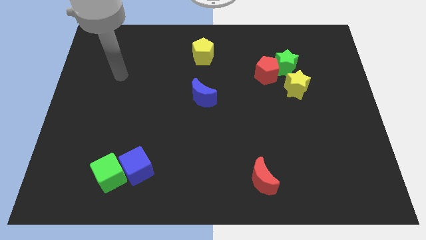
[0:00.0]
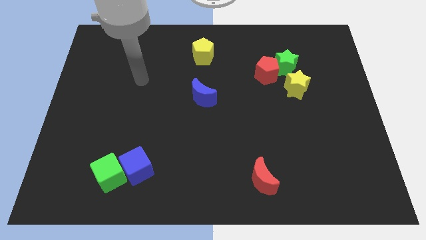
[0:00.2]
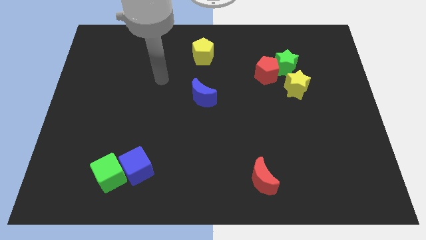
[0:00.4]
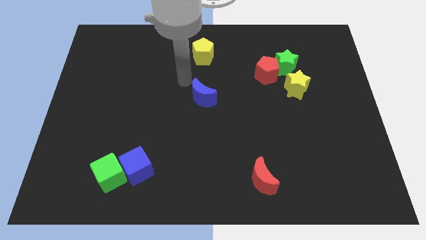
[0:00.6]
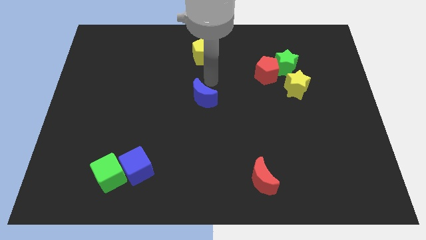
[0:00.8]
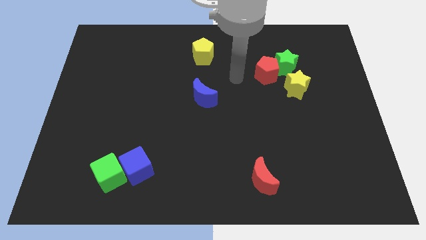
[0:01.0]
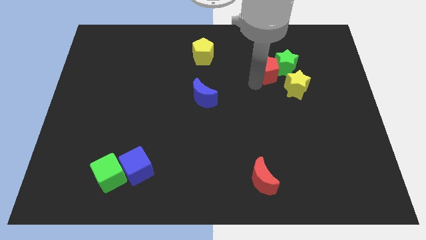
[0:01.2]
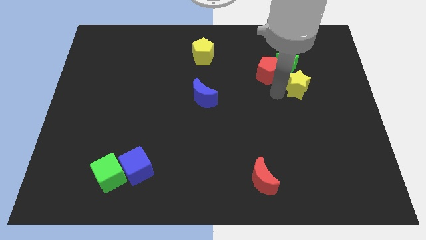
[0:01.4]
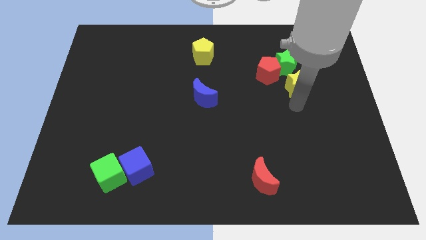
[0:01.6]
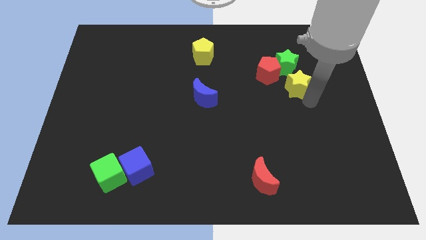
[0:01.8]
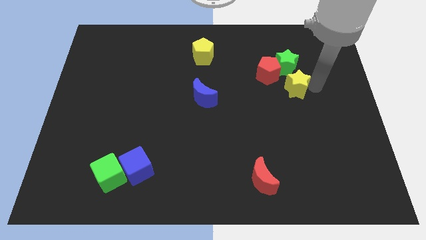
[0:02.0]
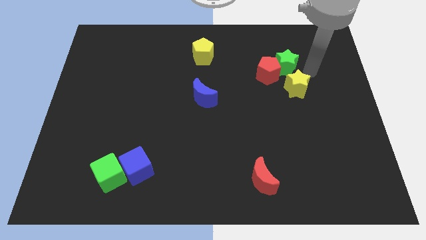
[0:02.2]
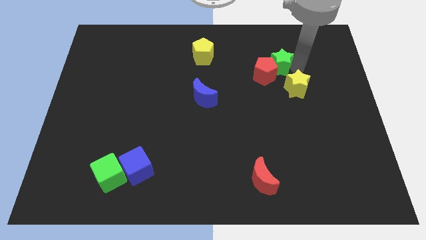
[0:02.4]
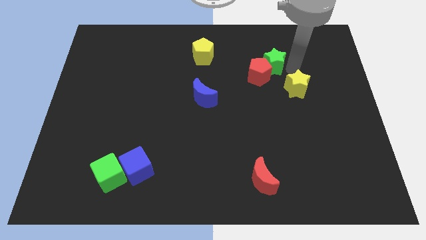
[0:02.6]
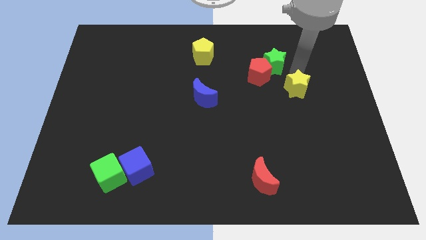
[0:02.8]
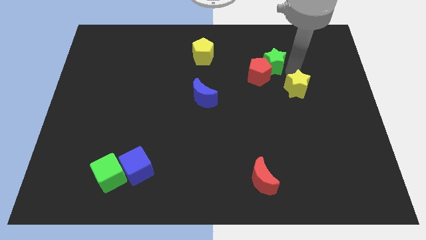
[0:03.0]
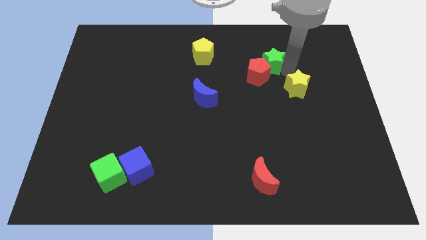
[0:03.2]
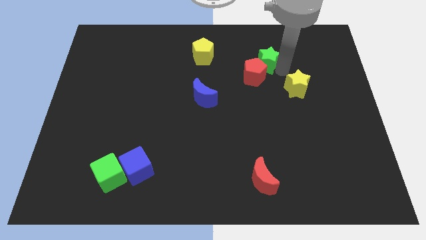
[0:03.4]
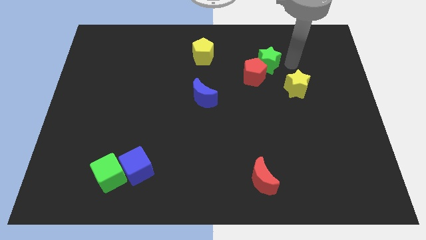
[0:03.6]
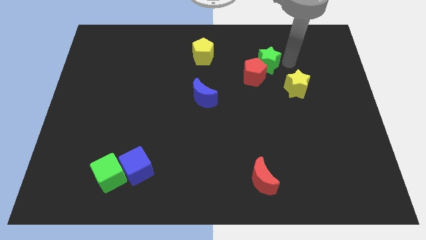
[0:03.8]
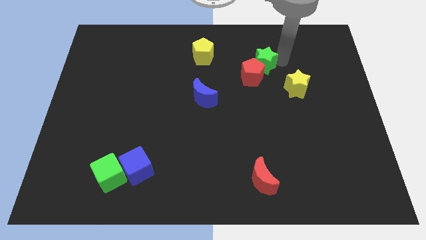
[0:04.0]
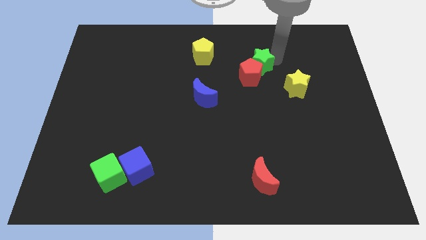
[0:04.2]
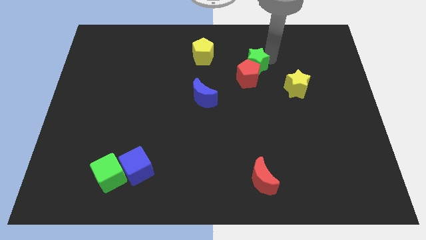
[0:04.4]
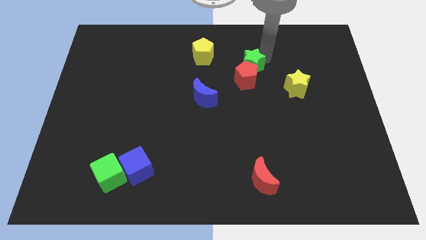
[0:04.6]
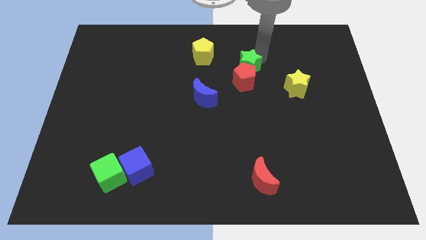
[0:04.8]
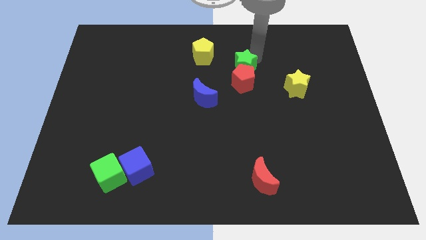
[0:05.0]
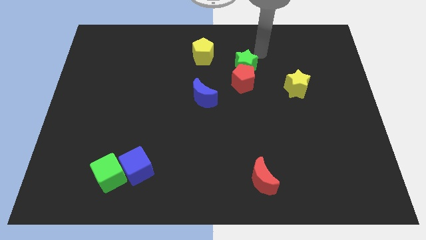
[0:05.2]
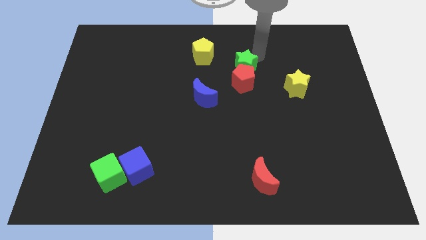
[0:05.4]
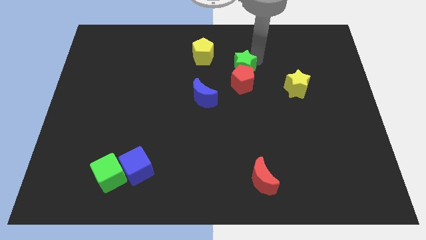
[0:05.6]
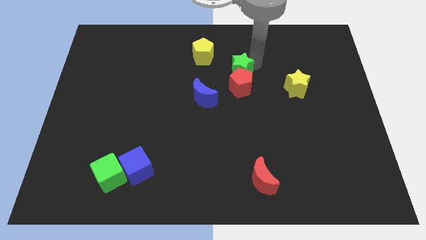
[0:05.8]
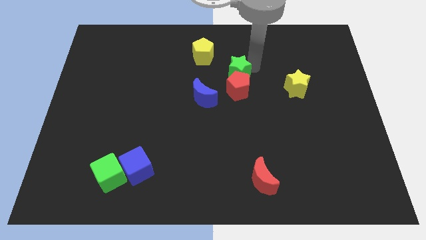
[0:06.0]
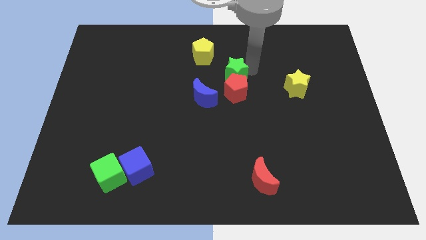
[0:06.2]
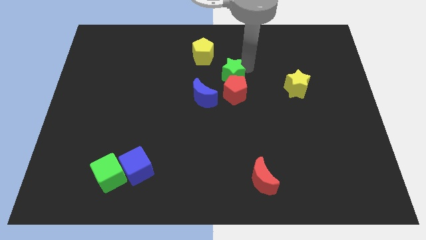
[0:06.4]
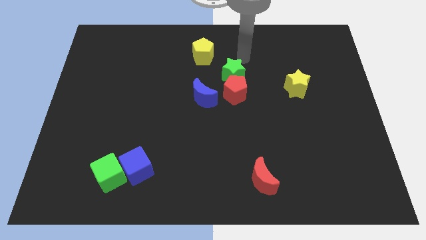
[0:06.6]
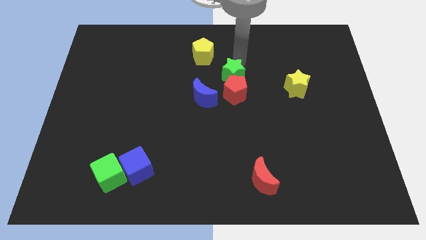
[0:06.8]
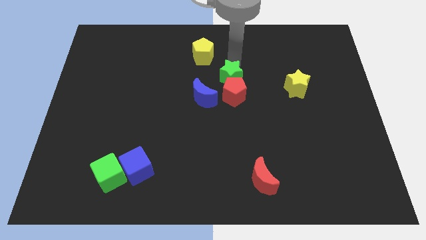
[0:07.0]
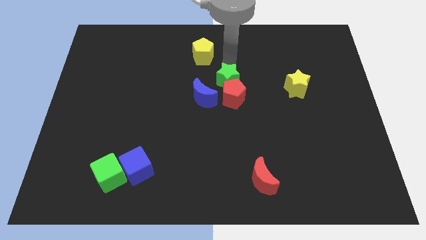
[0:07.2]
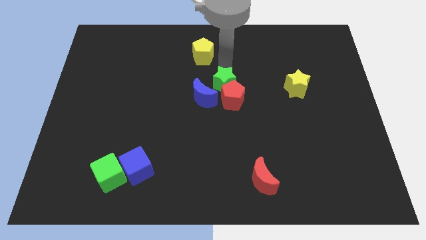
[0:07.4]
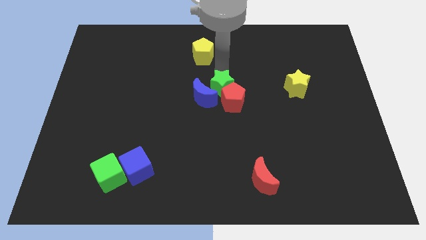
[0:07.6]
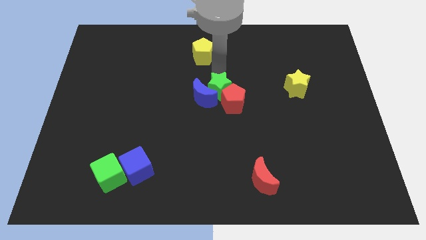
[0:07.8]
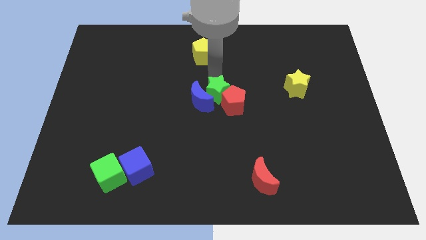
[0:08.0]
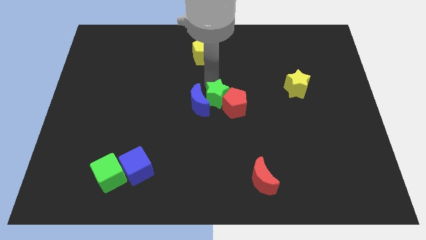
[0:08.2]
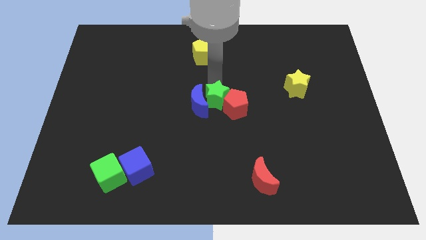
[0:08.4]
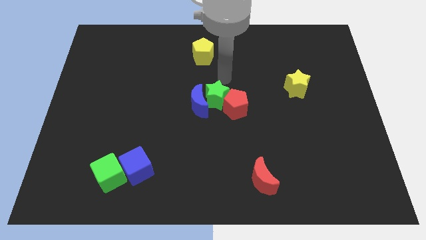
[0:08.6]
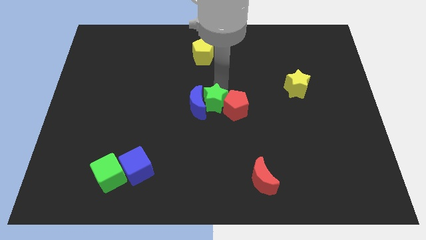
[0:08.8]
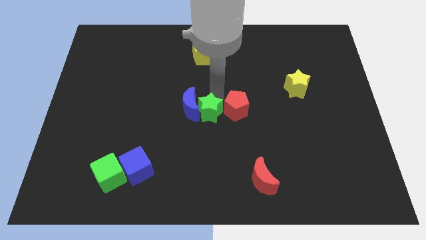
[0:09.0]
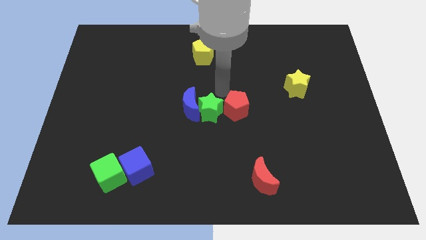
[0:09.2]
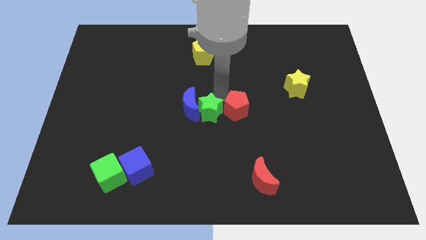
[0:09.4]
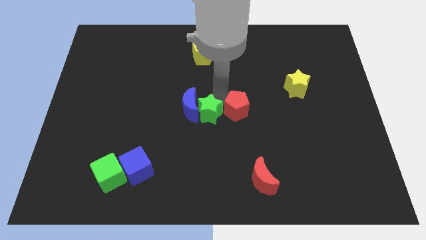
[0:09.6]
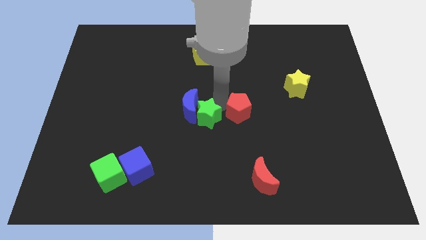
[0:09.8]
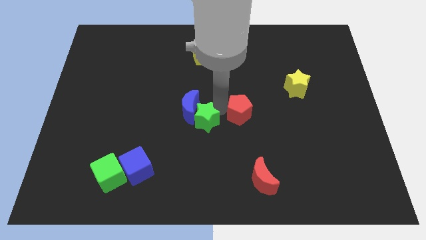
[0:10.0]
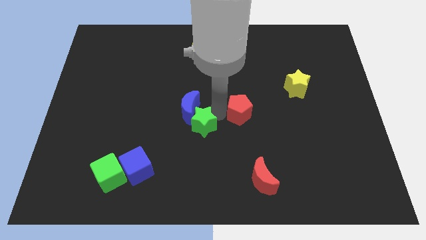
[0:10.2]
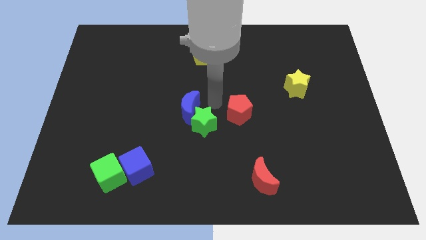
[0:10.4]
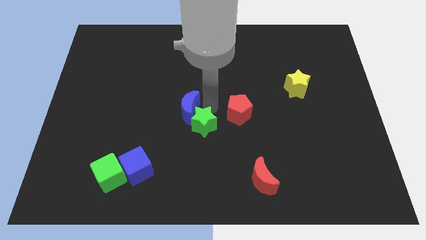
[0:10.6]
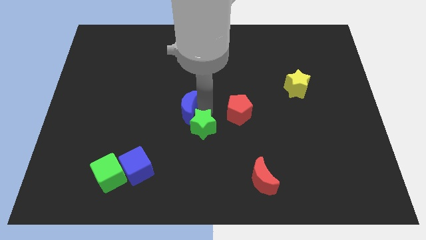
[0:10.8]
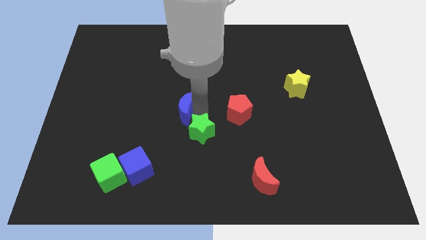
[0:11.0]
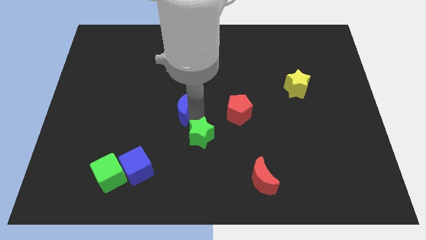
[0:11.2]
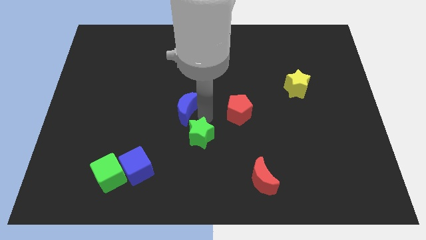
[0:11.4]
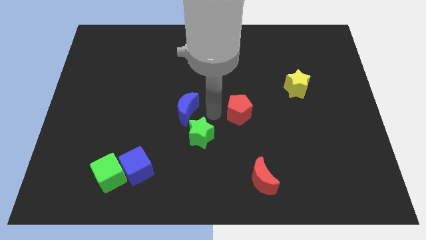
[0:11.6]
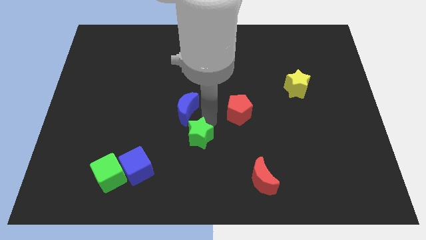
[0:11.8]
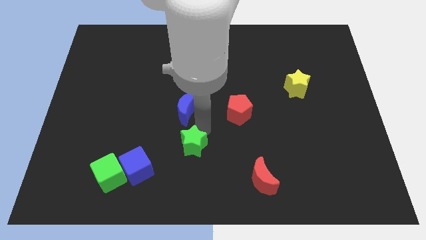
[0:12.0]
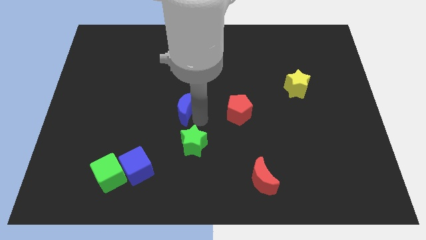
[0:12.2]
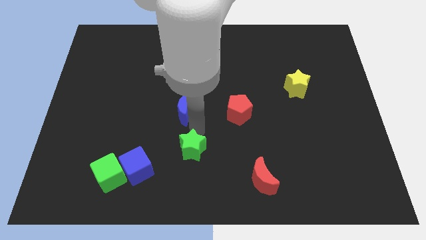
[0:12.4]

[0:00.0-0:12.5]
slide the green star just right of the blue cube
